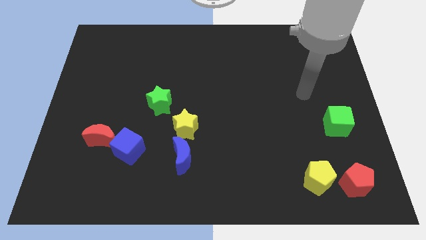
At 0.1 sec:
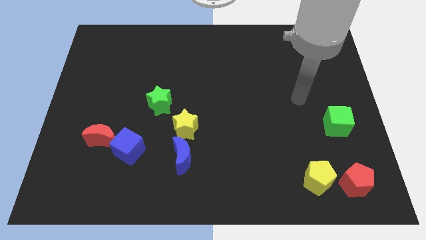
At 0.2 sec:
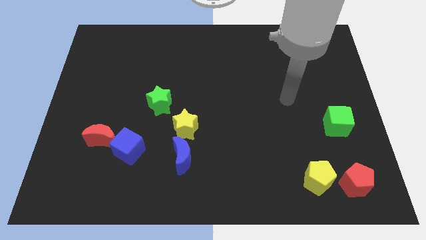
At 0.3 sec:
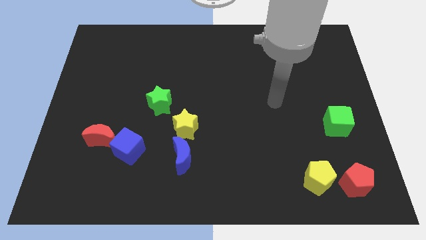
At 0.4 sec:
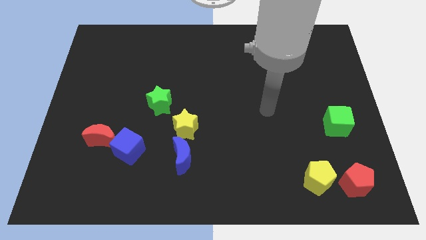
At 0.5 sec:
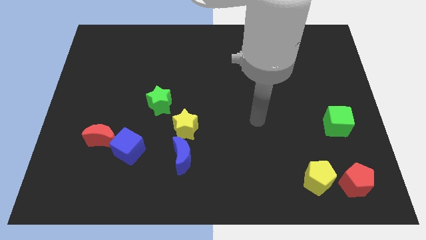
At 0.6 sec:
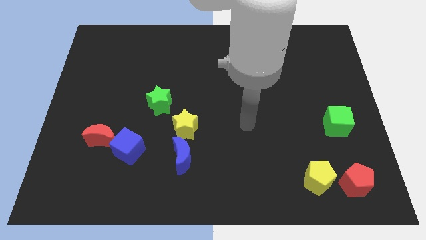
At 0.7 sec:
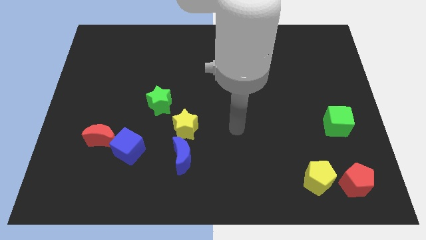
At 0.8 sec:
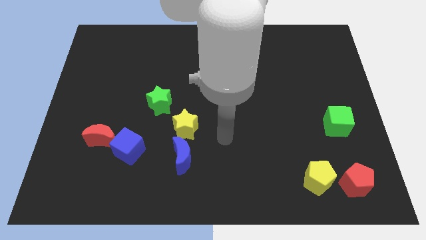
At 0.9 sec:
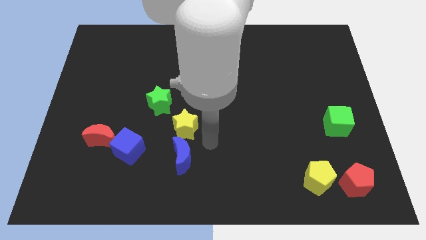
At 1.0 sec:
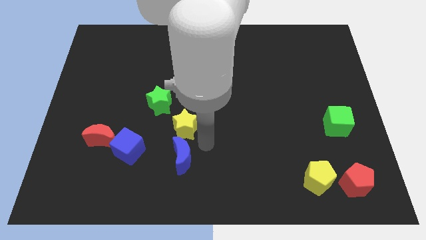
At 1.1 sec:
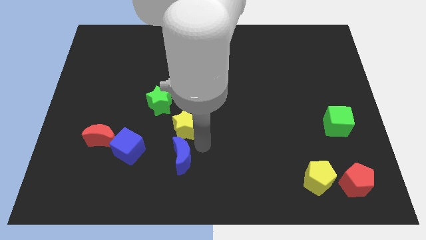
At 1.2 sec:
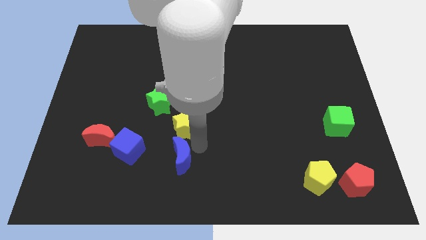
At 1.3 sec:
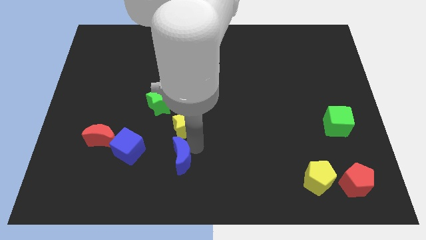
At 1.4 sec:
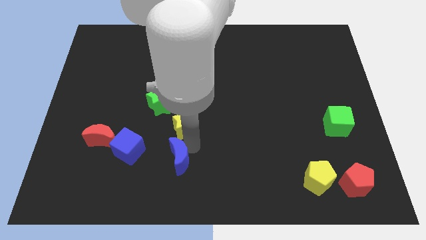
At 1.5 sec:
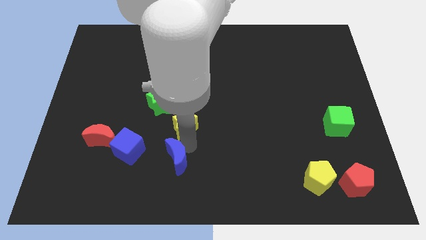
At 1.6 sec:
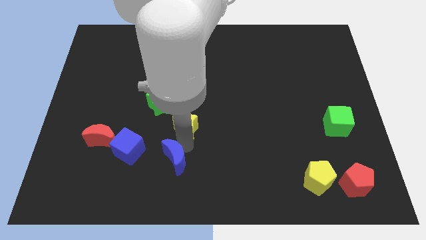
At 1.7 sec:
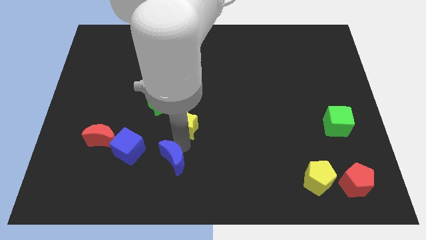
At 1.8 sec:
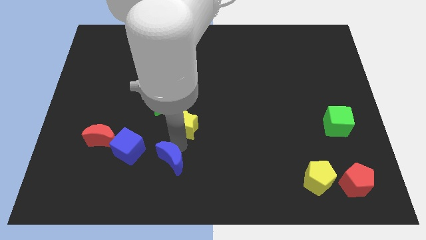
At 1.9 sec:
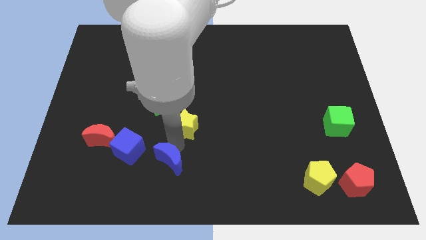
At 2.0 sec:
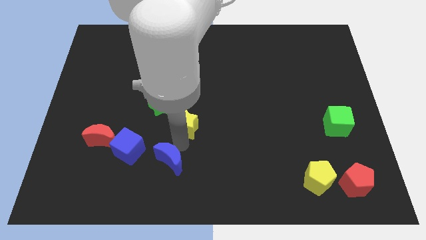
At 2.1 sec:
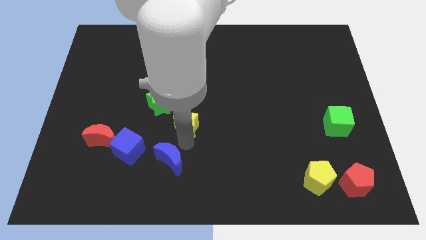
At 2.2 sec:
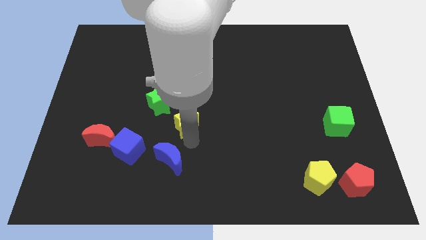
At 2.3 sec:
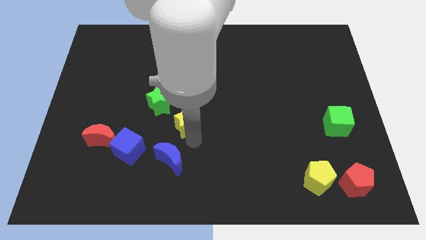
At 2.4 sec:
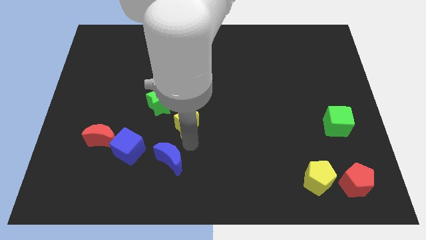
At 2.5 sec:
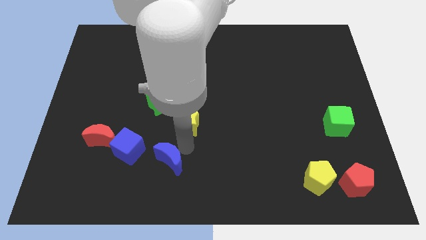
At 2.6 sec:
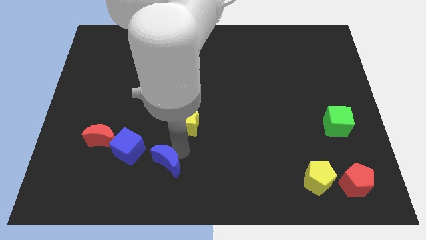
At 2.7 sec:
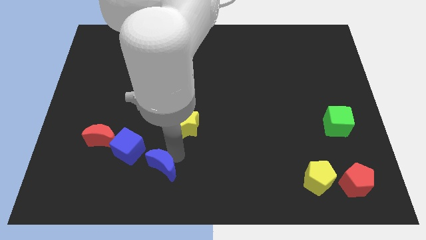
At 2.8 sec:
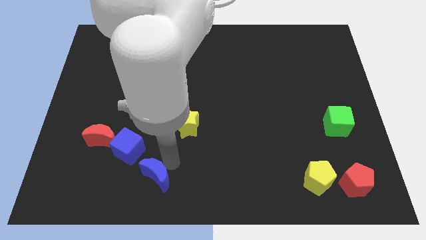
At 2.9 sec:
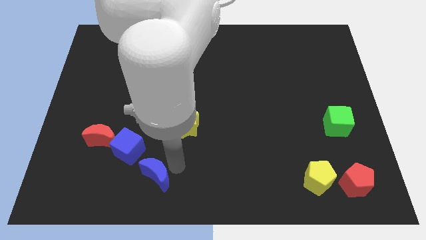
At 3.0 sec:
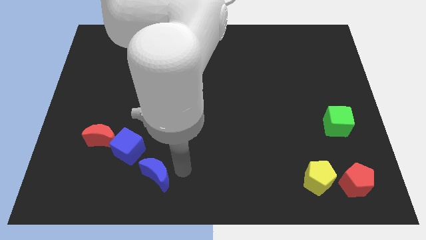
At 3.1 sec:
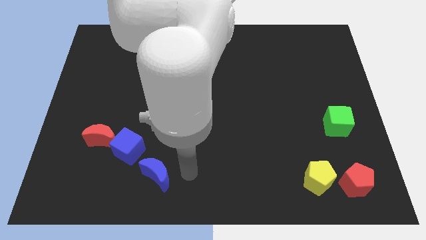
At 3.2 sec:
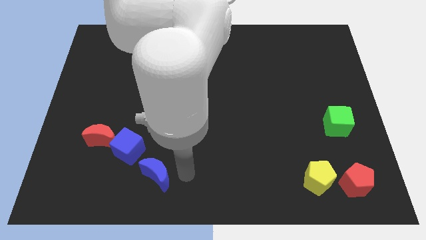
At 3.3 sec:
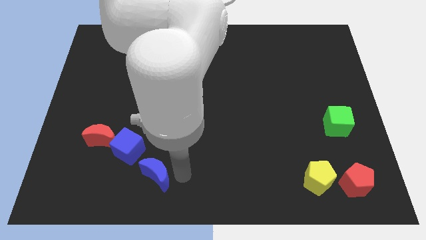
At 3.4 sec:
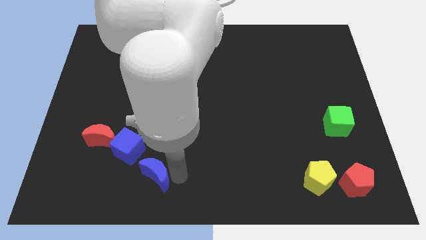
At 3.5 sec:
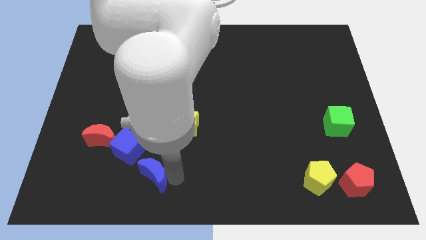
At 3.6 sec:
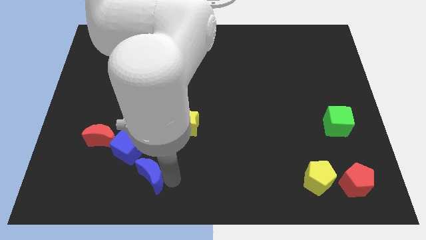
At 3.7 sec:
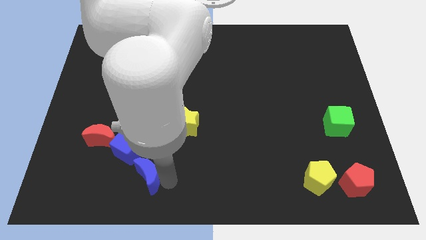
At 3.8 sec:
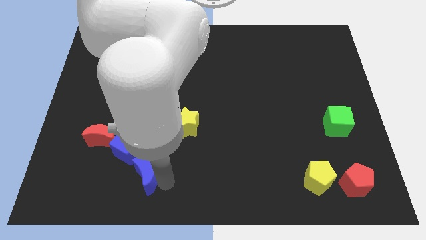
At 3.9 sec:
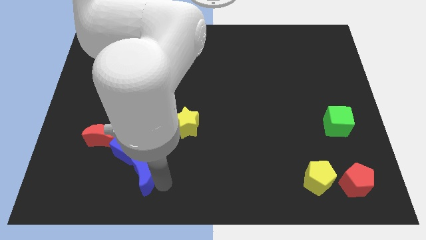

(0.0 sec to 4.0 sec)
push the blue moon slightly left

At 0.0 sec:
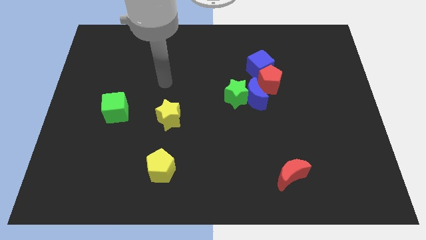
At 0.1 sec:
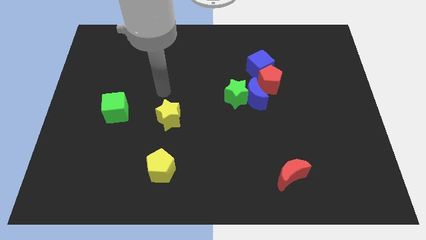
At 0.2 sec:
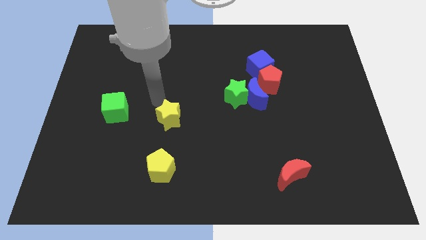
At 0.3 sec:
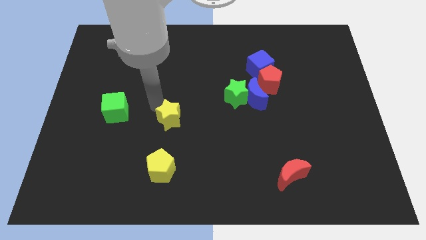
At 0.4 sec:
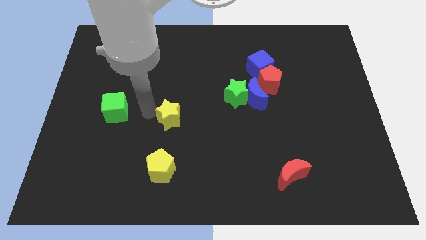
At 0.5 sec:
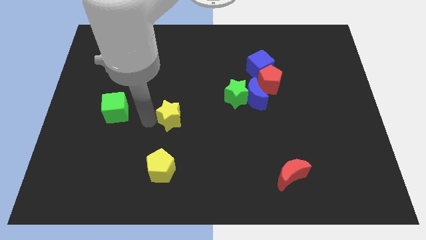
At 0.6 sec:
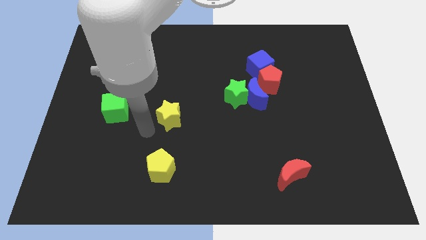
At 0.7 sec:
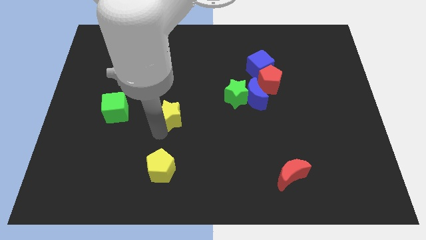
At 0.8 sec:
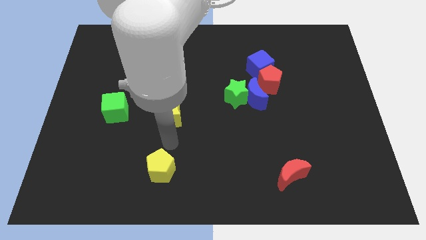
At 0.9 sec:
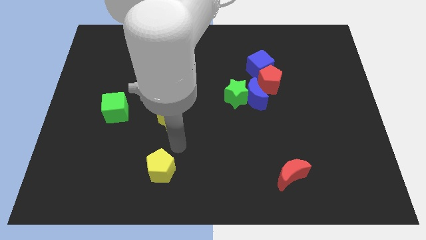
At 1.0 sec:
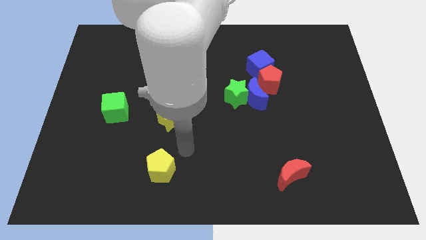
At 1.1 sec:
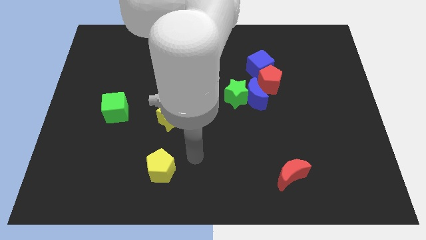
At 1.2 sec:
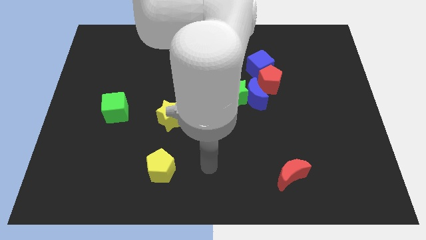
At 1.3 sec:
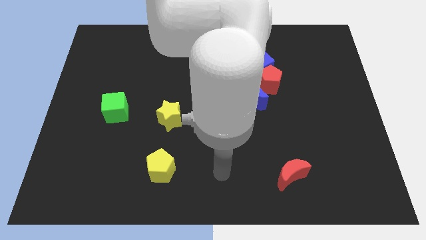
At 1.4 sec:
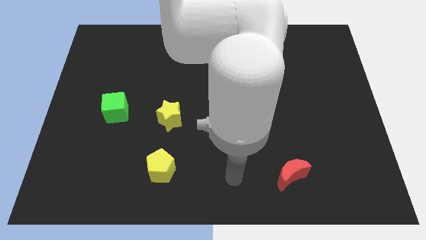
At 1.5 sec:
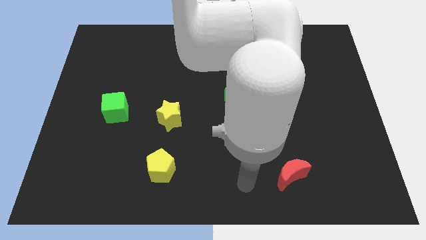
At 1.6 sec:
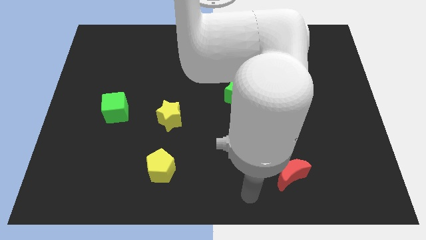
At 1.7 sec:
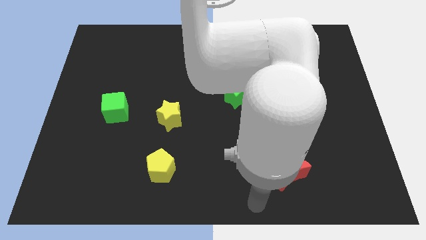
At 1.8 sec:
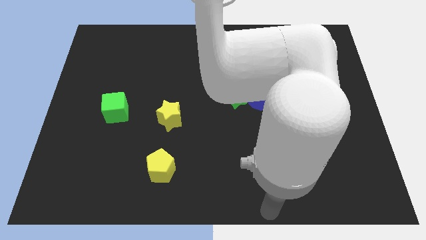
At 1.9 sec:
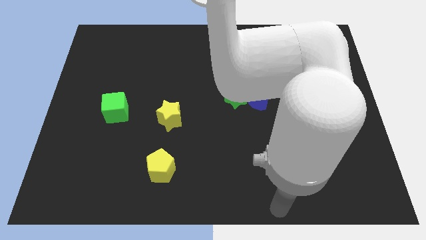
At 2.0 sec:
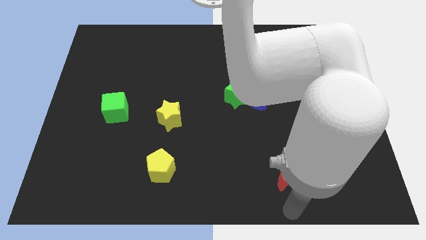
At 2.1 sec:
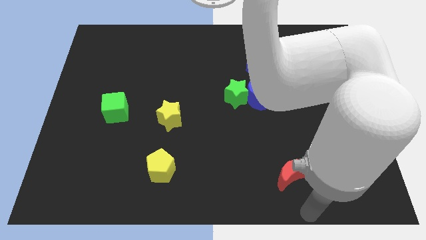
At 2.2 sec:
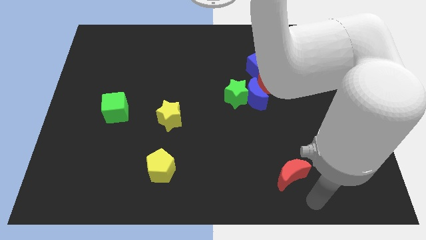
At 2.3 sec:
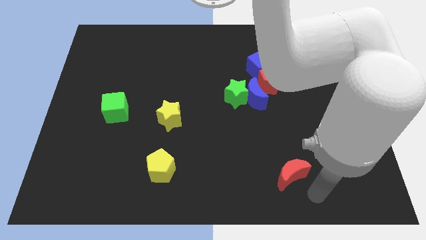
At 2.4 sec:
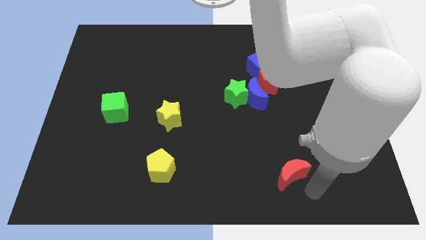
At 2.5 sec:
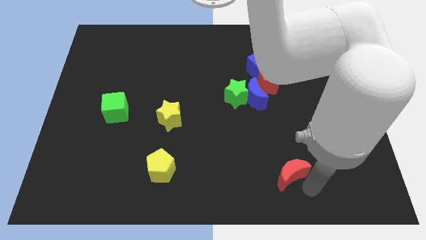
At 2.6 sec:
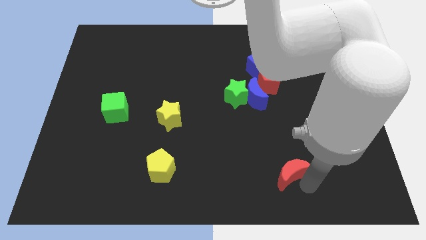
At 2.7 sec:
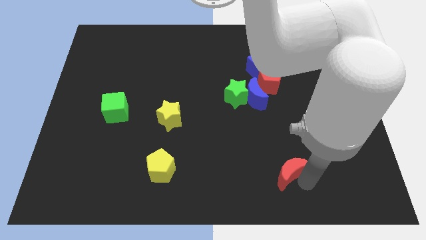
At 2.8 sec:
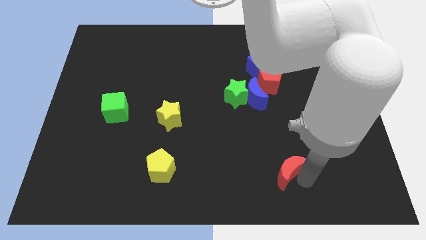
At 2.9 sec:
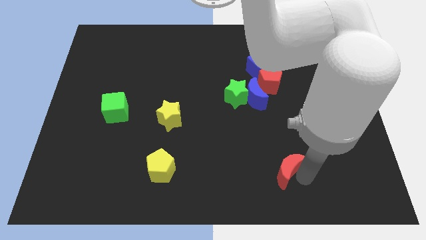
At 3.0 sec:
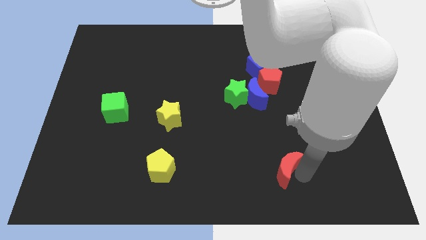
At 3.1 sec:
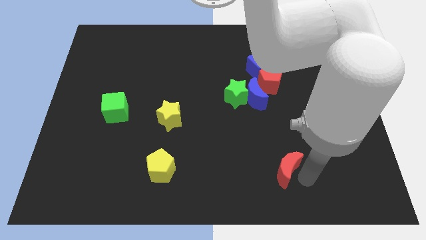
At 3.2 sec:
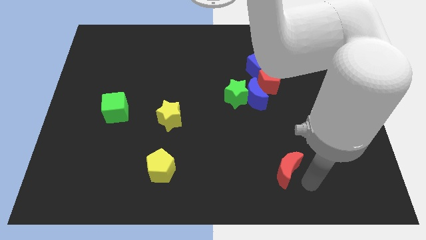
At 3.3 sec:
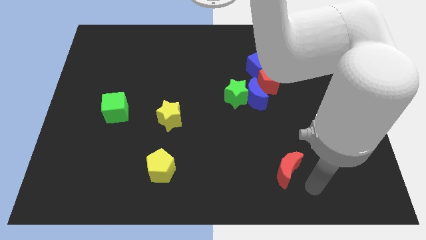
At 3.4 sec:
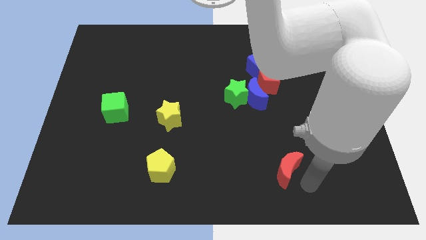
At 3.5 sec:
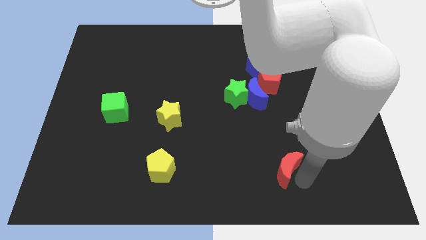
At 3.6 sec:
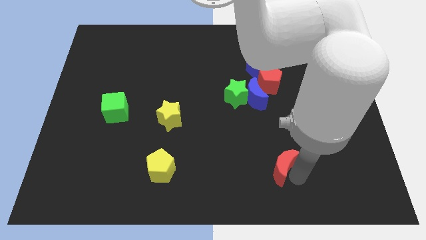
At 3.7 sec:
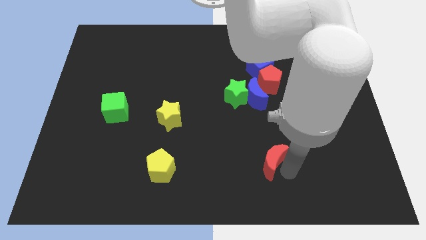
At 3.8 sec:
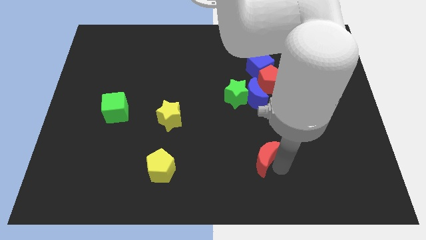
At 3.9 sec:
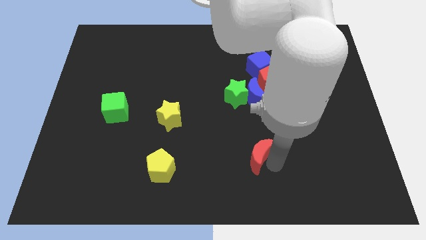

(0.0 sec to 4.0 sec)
slightly move the red moon up and then left

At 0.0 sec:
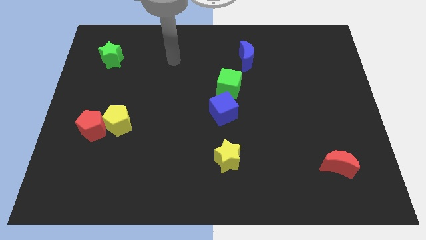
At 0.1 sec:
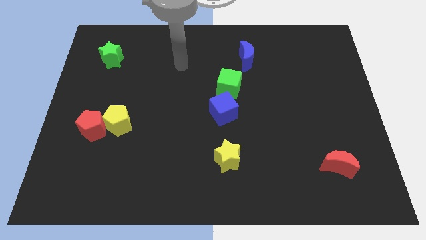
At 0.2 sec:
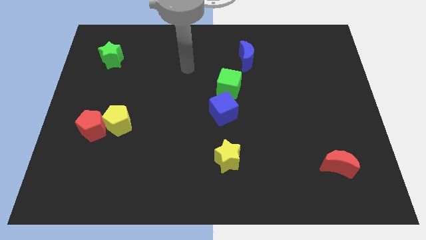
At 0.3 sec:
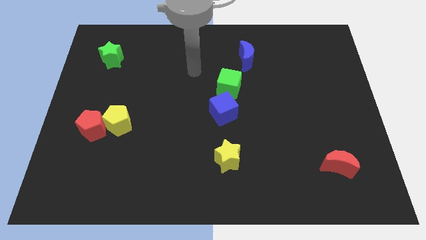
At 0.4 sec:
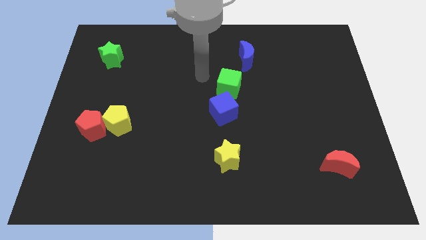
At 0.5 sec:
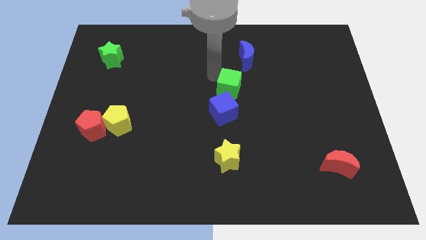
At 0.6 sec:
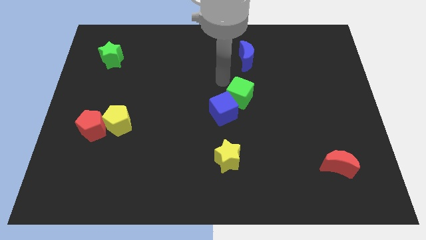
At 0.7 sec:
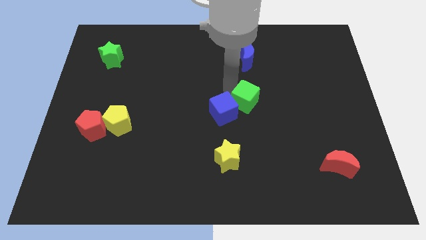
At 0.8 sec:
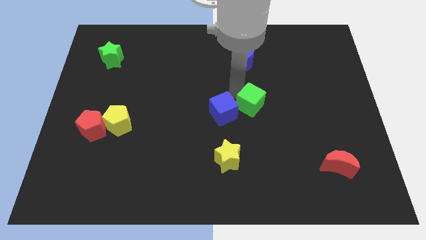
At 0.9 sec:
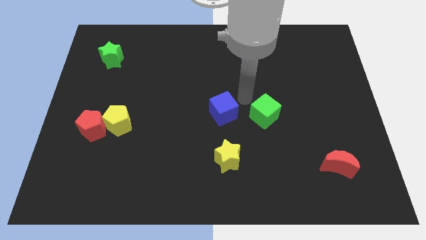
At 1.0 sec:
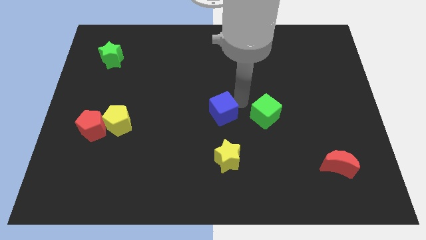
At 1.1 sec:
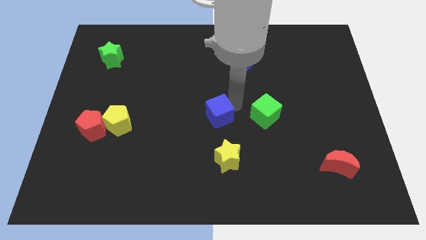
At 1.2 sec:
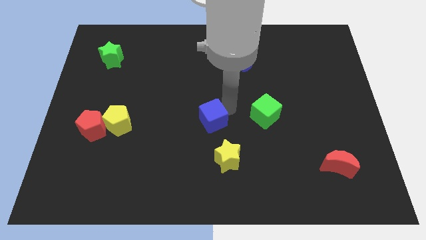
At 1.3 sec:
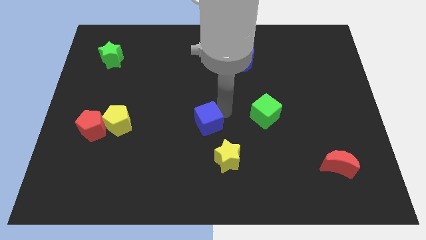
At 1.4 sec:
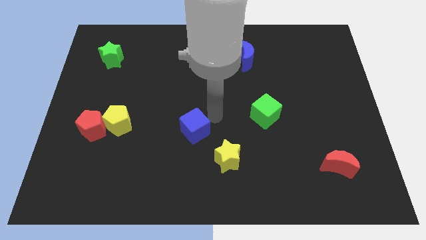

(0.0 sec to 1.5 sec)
push the blue cube down and left diagonally a bit
